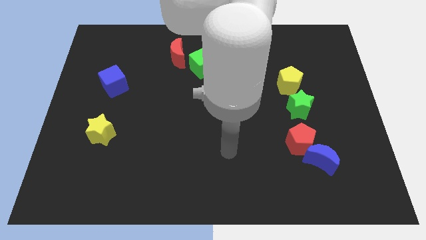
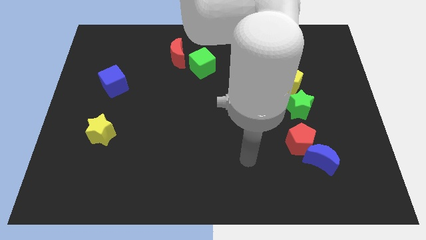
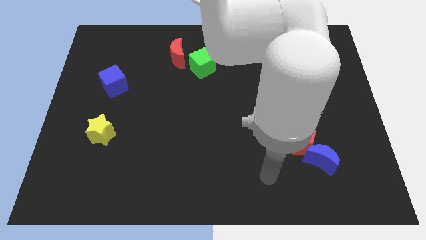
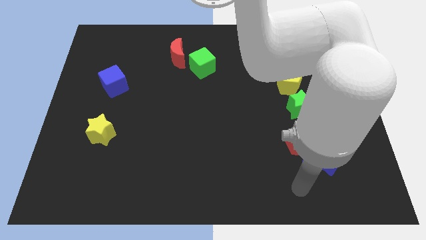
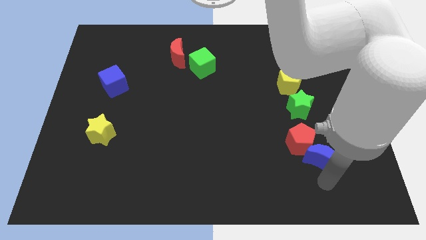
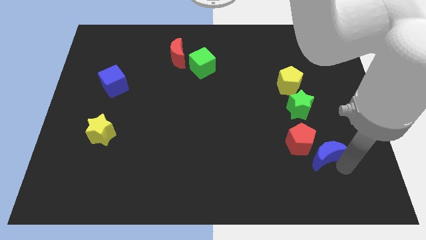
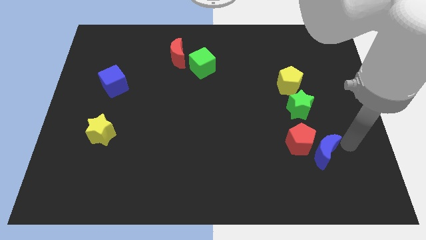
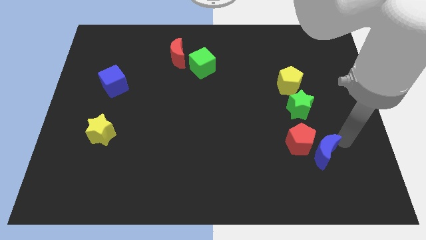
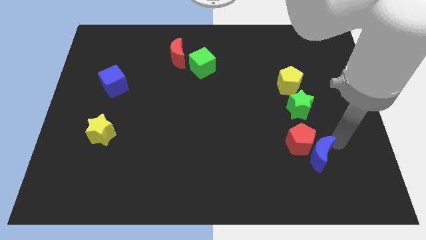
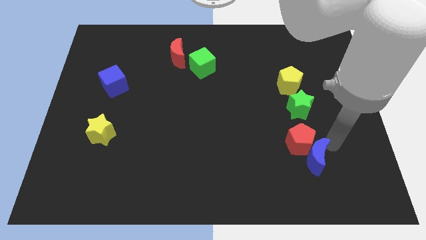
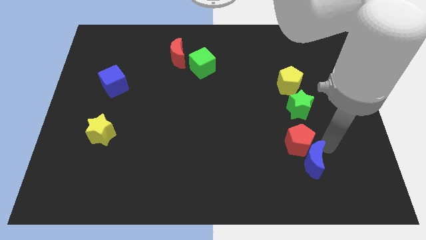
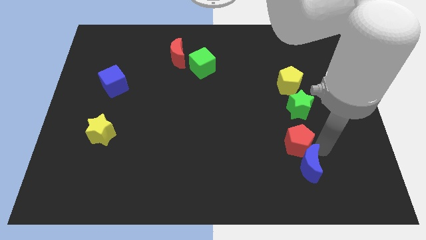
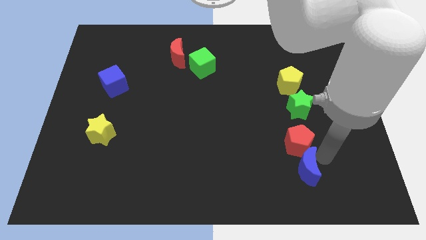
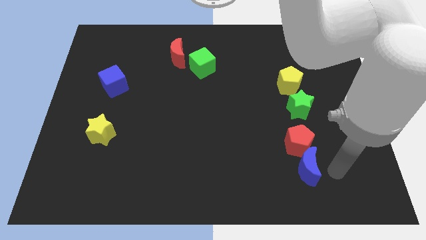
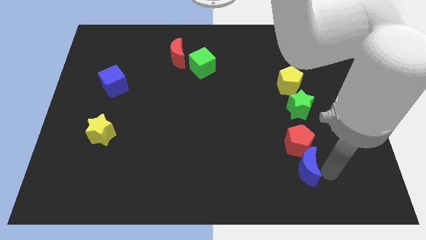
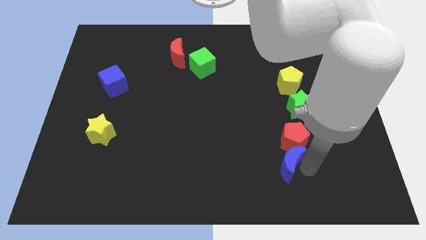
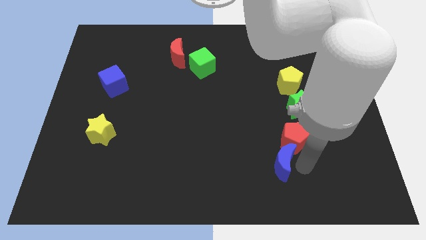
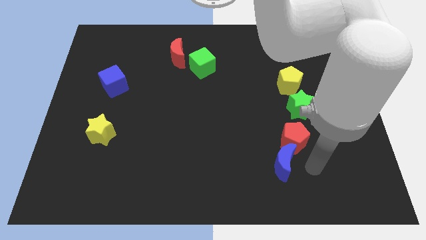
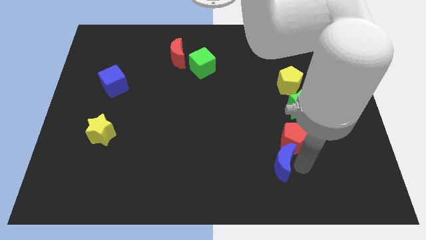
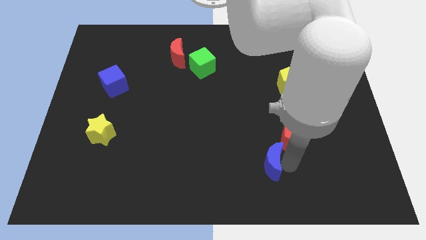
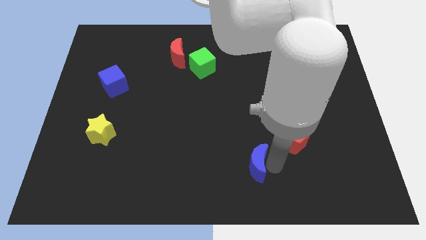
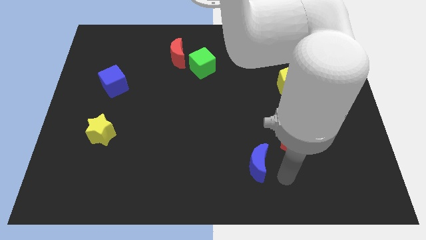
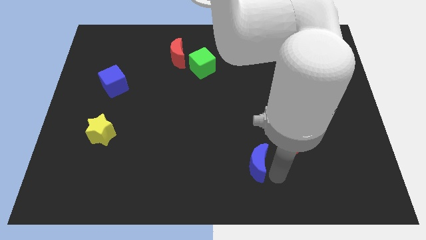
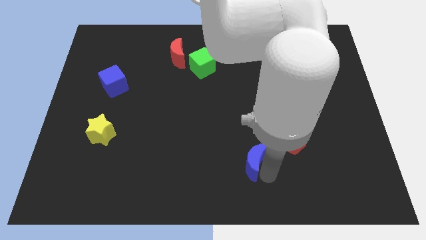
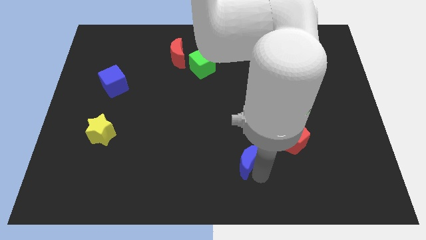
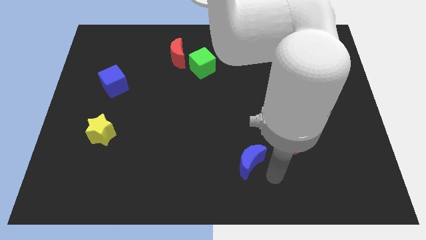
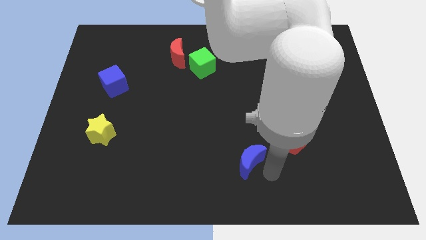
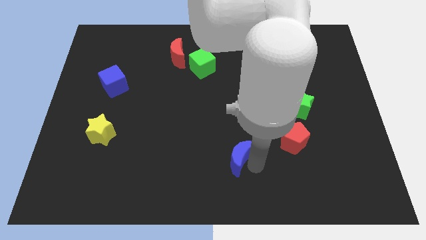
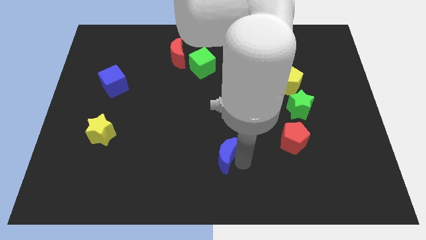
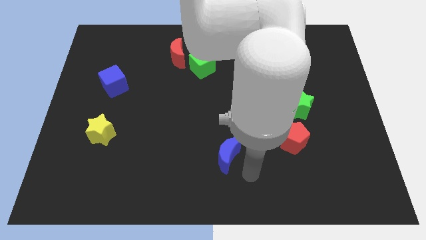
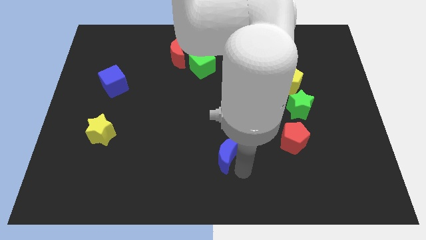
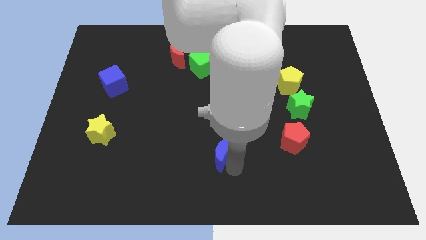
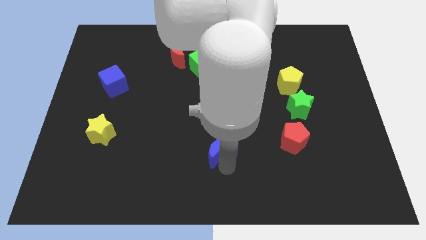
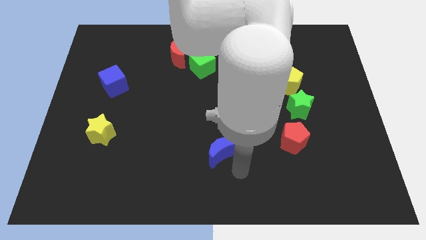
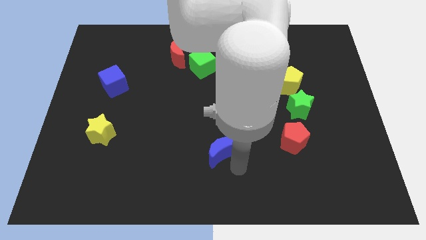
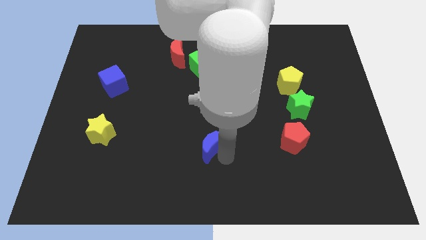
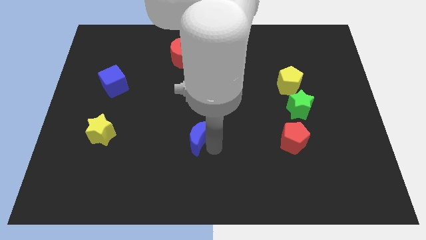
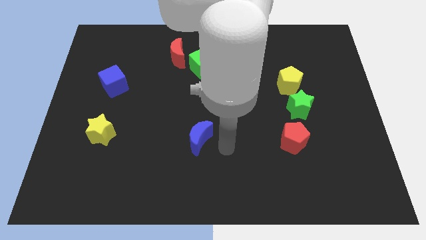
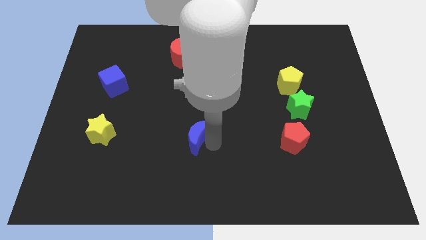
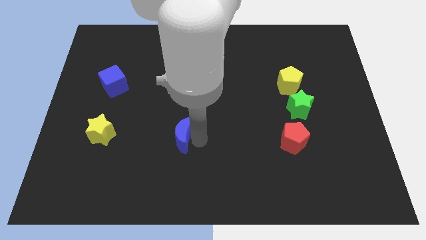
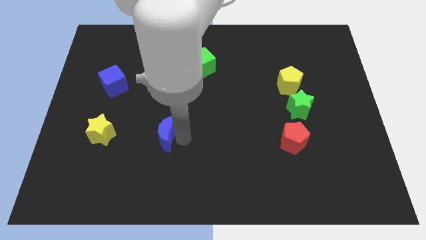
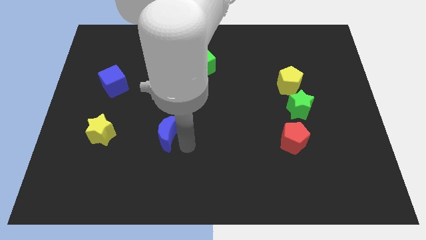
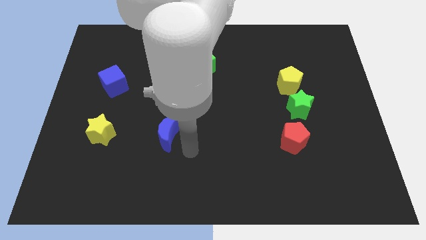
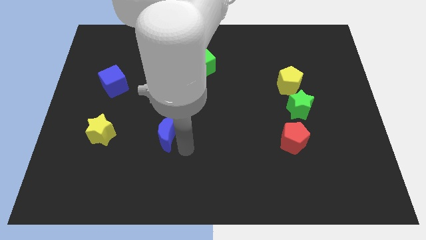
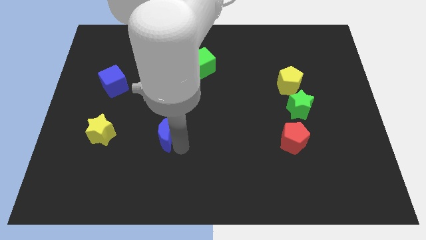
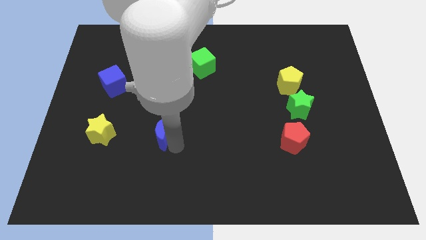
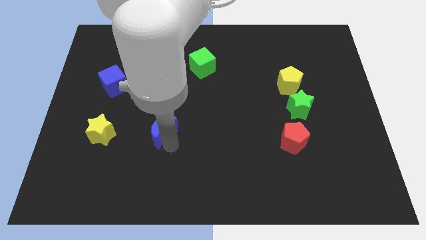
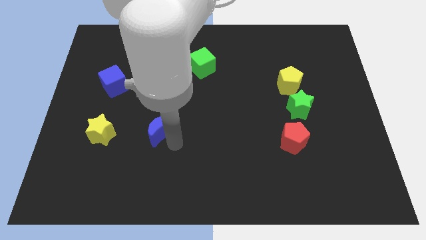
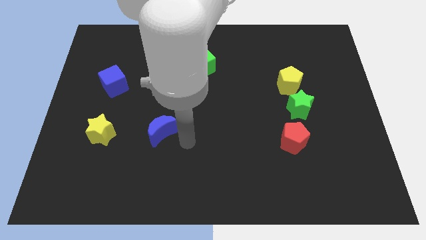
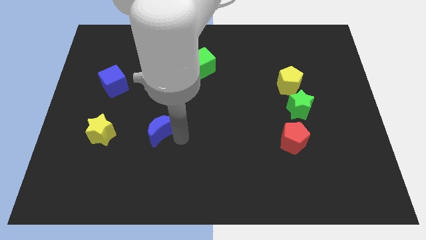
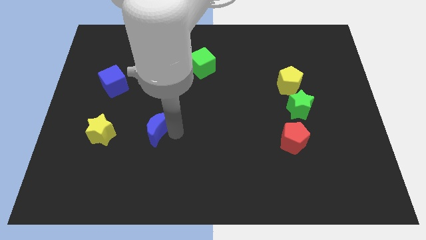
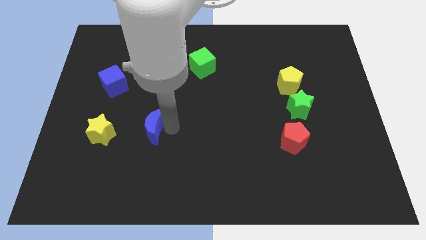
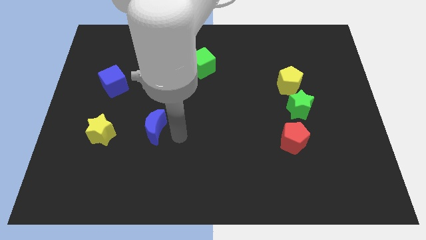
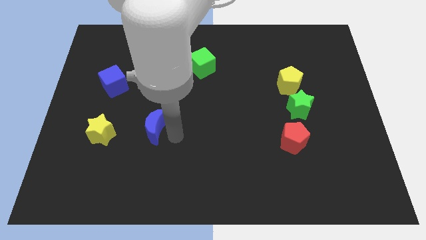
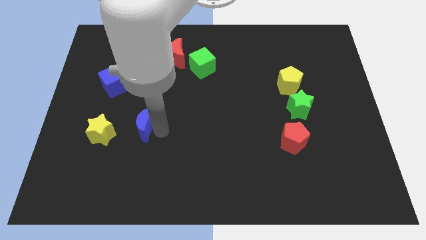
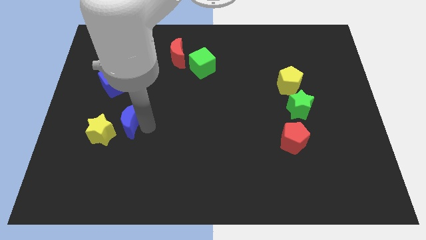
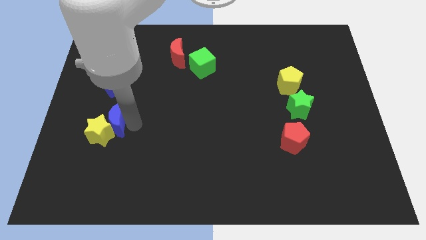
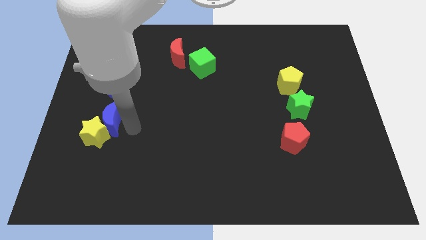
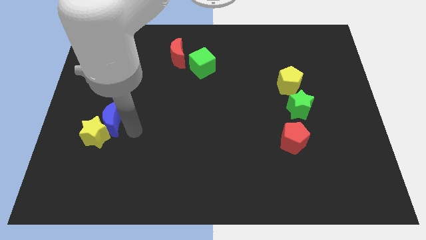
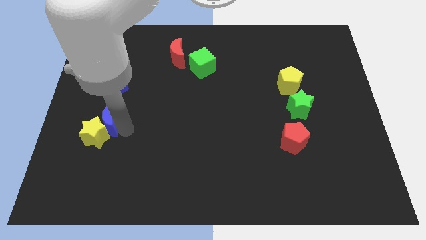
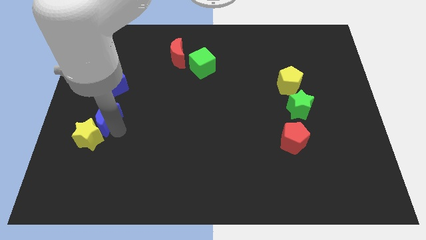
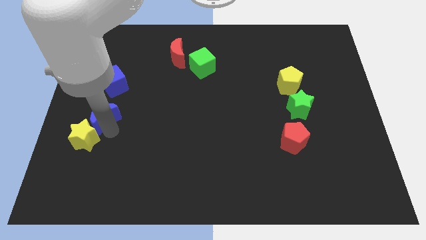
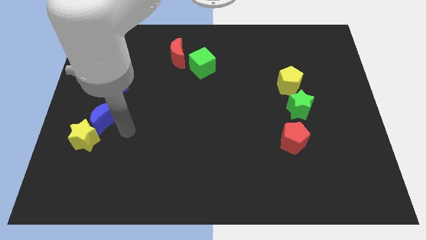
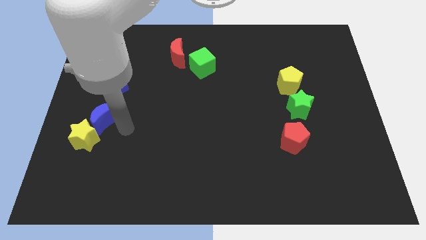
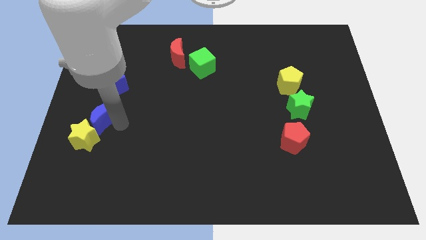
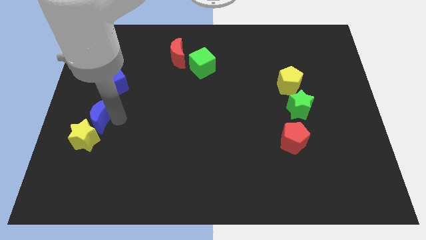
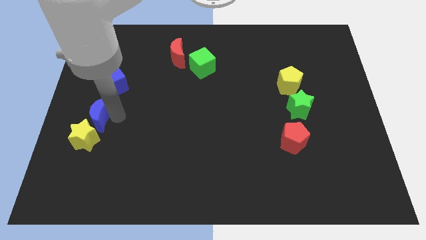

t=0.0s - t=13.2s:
put the blue moon to the center left
